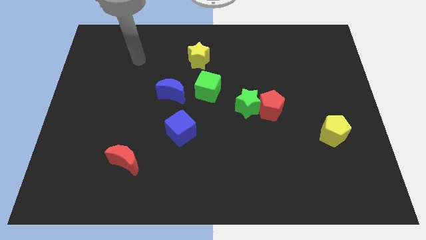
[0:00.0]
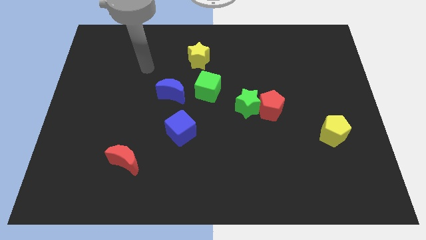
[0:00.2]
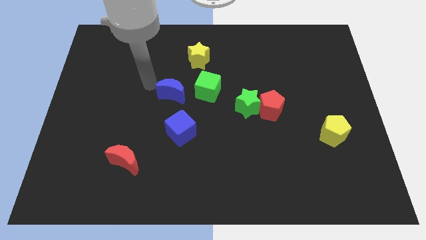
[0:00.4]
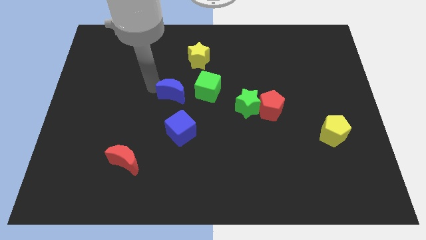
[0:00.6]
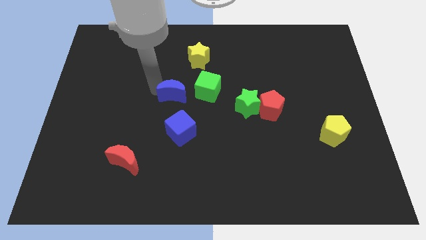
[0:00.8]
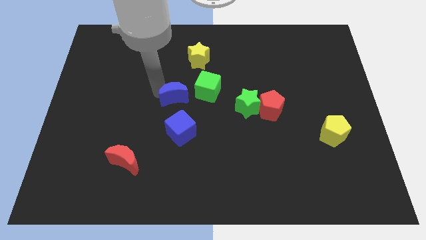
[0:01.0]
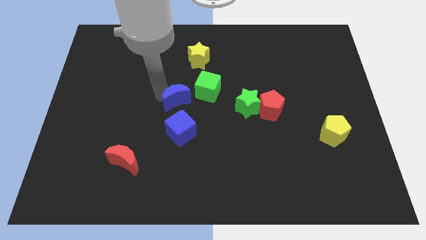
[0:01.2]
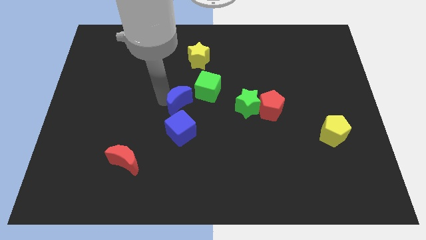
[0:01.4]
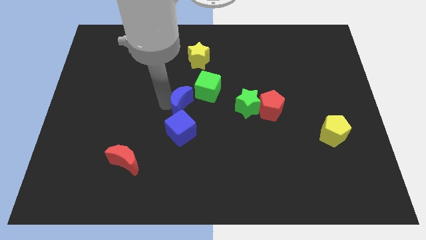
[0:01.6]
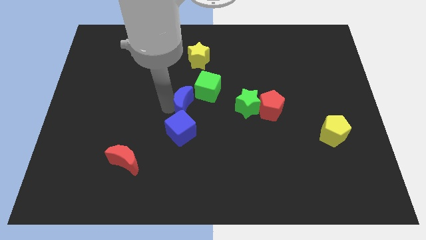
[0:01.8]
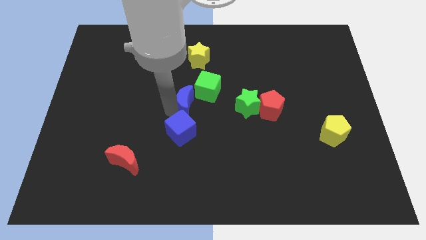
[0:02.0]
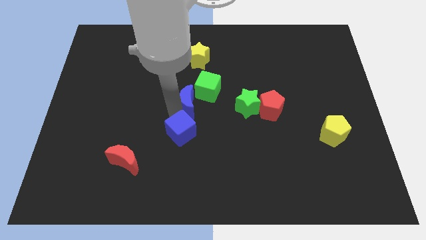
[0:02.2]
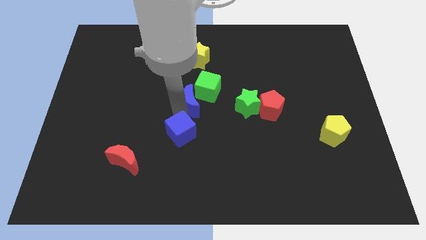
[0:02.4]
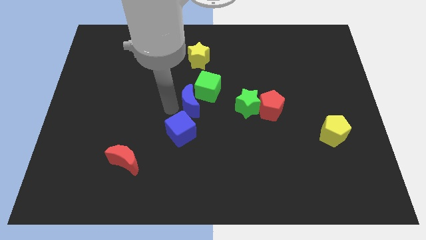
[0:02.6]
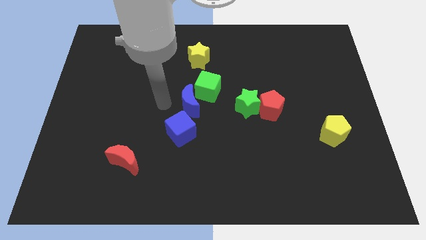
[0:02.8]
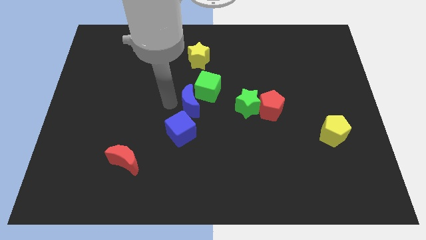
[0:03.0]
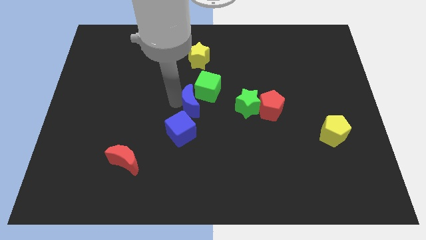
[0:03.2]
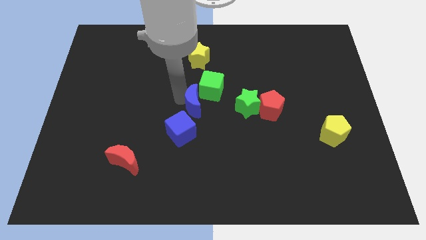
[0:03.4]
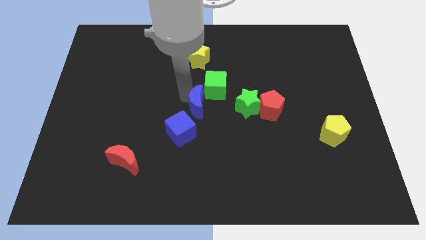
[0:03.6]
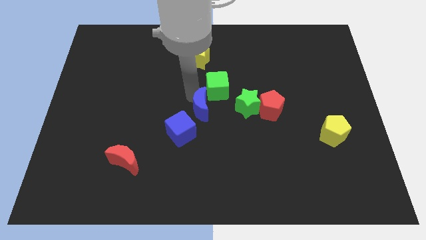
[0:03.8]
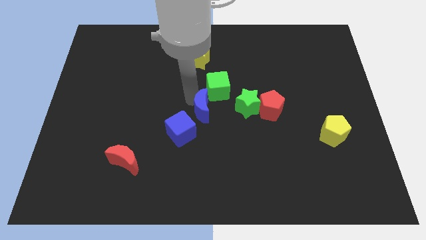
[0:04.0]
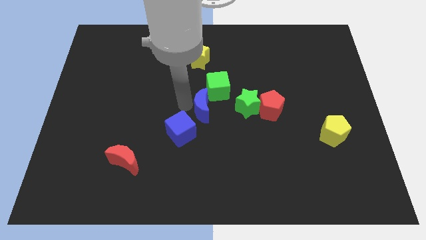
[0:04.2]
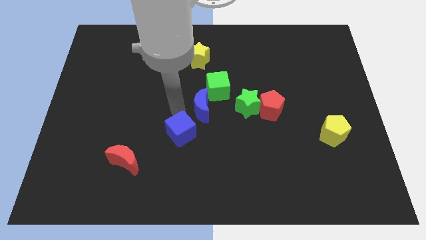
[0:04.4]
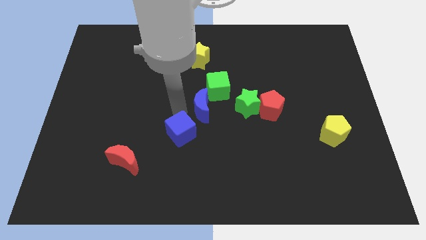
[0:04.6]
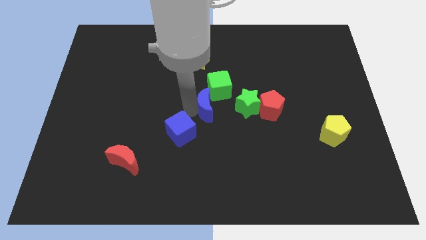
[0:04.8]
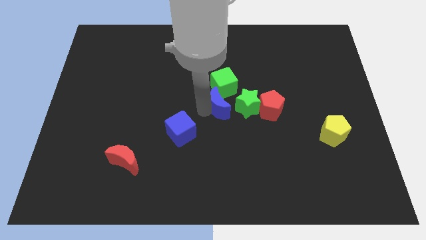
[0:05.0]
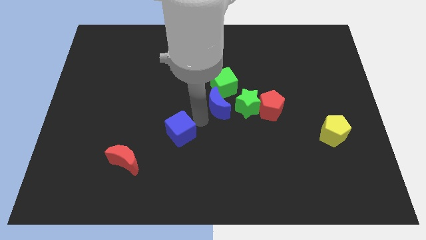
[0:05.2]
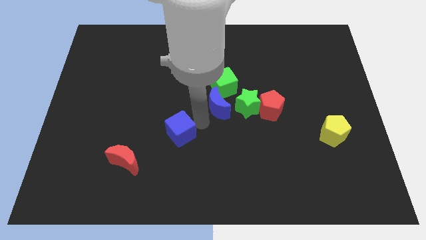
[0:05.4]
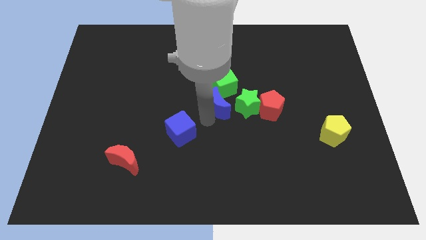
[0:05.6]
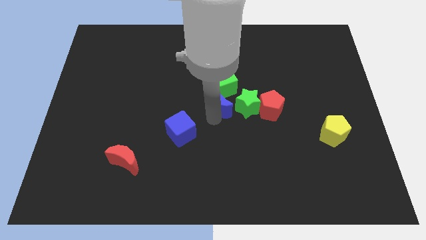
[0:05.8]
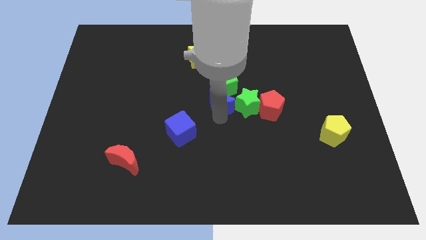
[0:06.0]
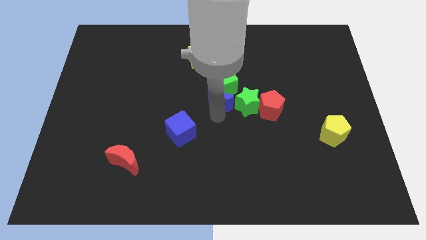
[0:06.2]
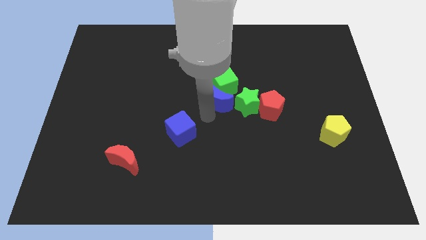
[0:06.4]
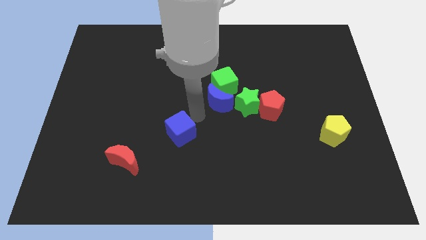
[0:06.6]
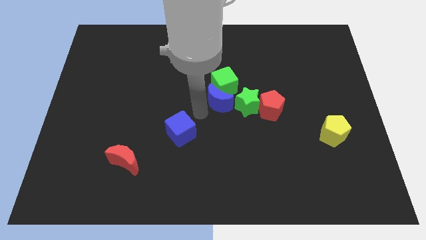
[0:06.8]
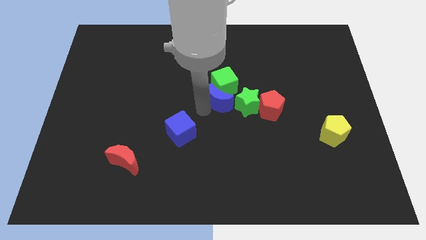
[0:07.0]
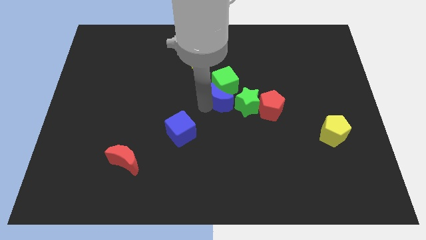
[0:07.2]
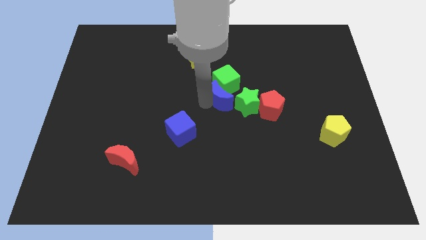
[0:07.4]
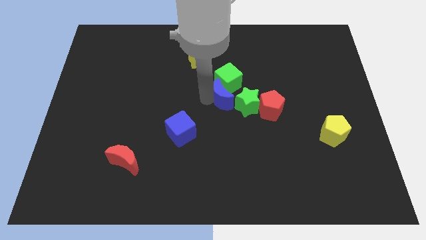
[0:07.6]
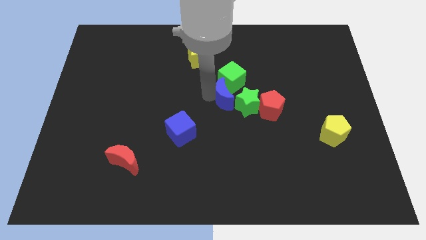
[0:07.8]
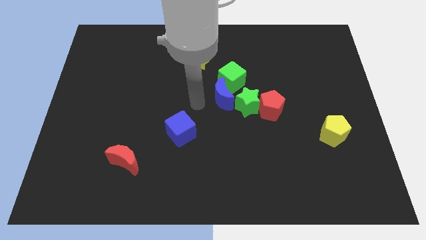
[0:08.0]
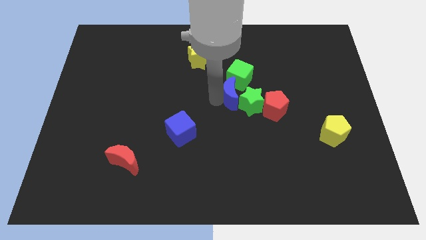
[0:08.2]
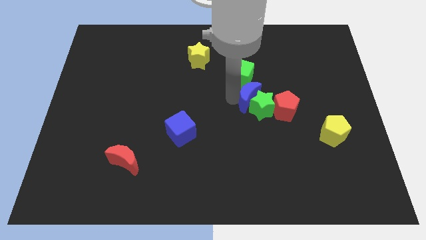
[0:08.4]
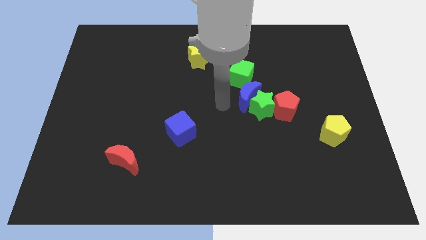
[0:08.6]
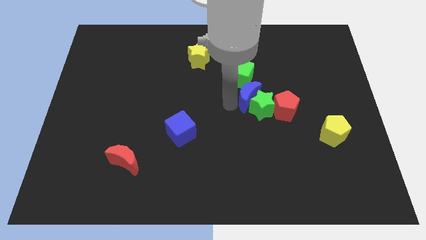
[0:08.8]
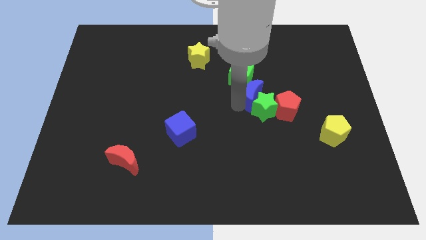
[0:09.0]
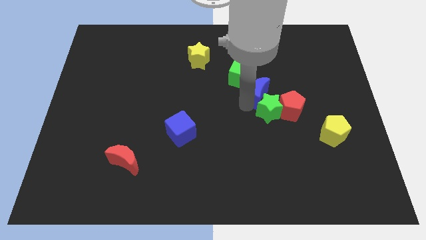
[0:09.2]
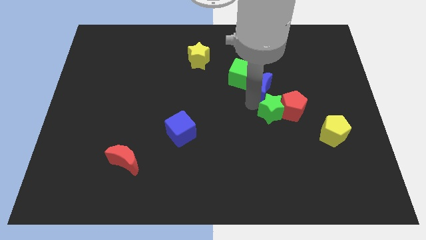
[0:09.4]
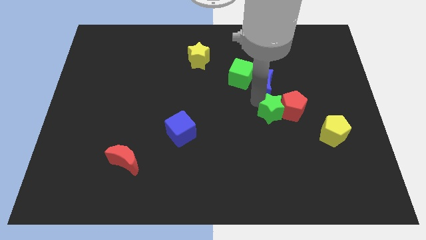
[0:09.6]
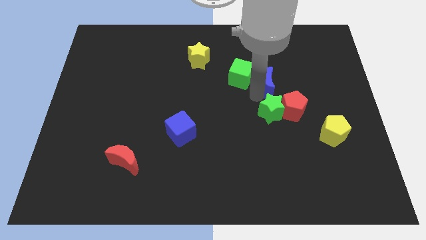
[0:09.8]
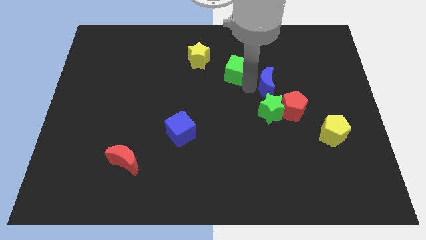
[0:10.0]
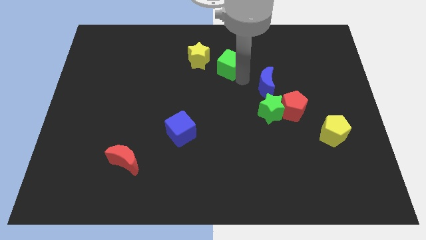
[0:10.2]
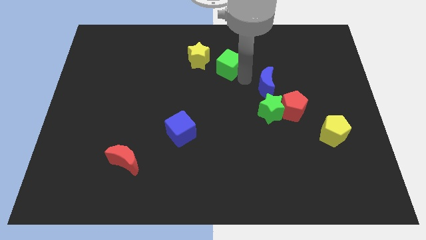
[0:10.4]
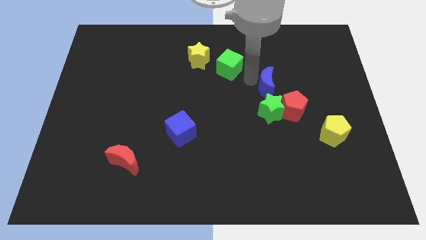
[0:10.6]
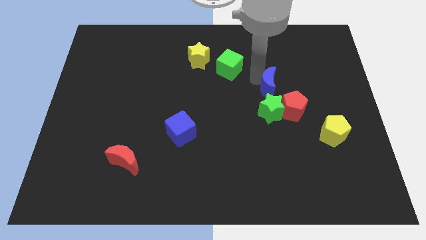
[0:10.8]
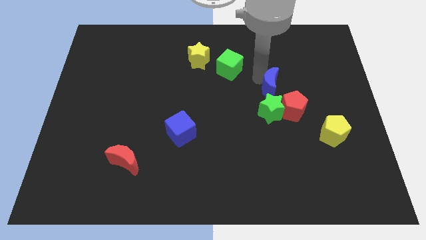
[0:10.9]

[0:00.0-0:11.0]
slide the blue moon to the top right side of the green star
